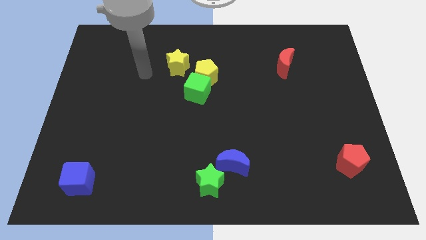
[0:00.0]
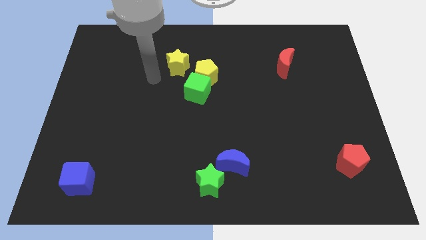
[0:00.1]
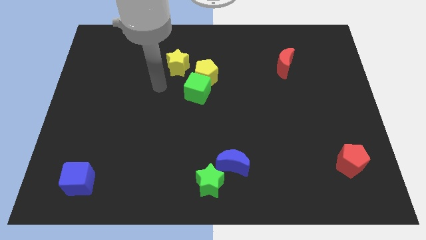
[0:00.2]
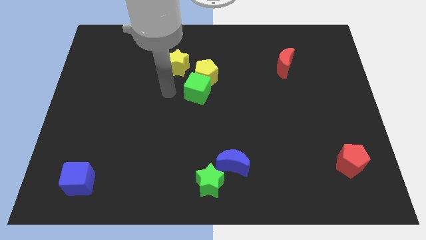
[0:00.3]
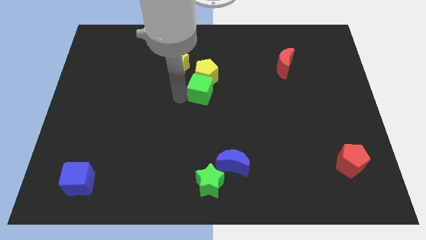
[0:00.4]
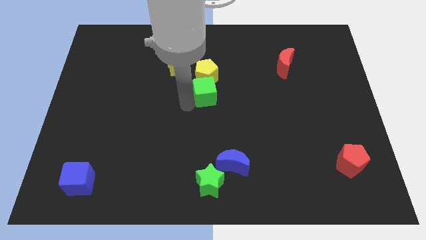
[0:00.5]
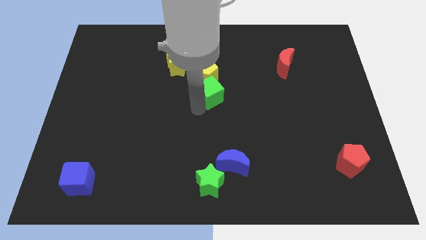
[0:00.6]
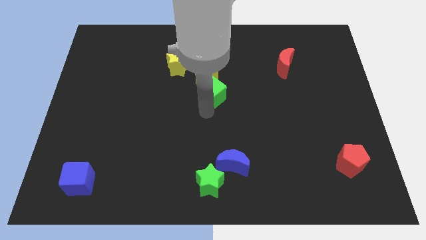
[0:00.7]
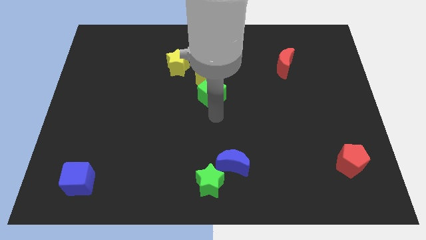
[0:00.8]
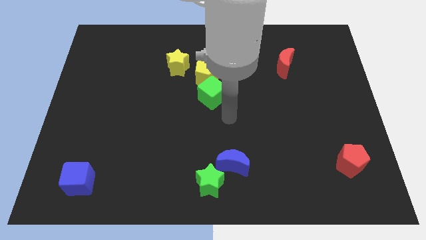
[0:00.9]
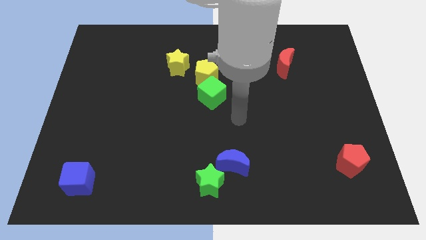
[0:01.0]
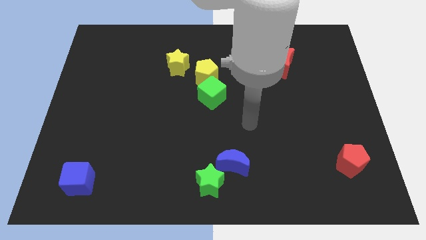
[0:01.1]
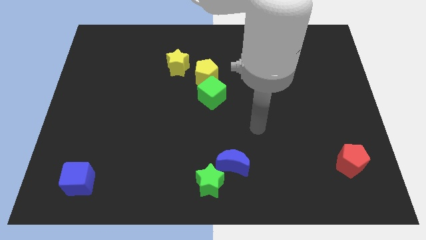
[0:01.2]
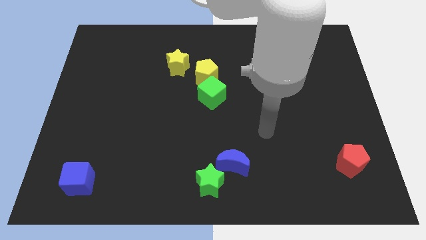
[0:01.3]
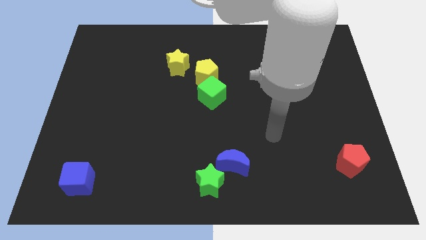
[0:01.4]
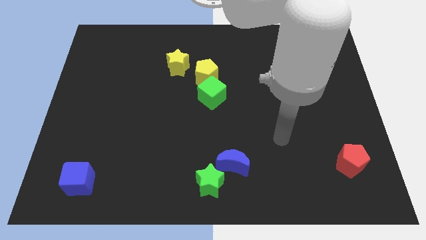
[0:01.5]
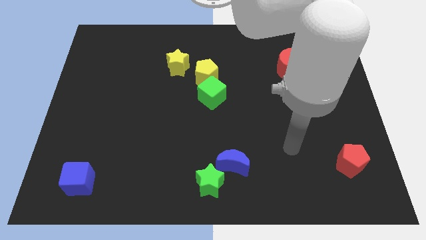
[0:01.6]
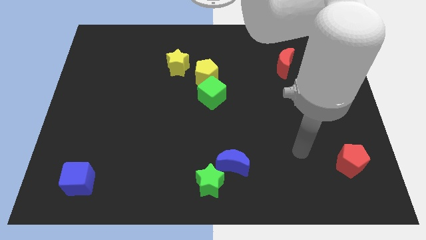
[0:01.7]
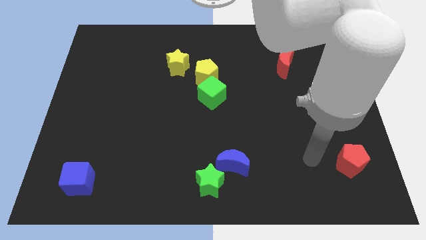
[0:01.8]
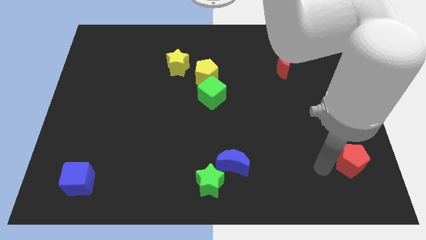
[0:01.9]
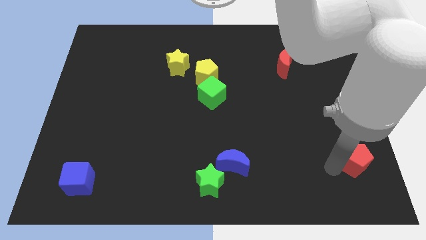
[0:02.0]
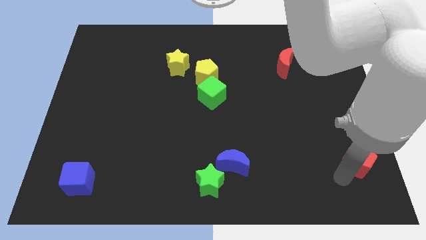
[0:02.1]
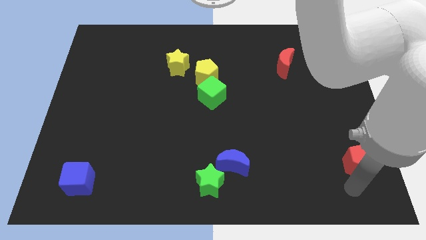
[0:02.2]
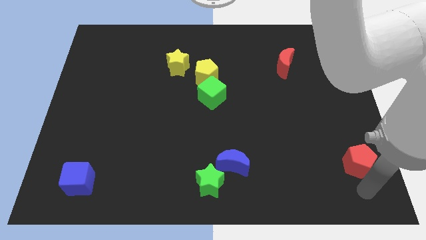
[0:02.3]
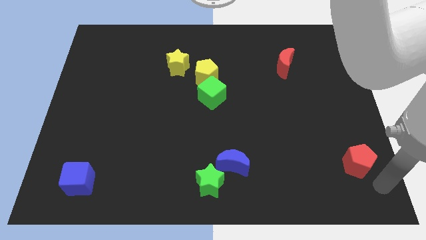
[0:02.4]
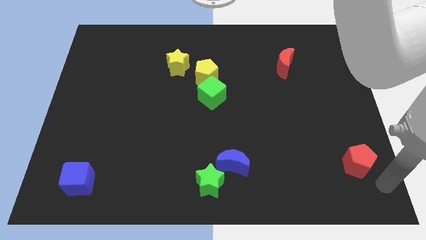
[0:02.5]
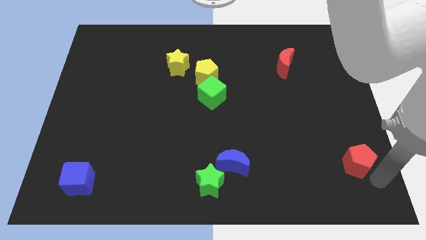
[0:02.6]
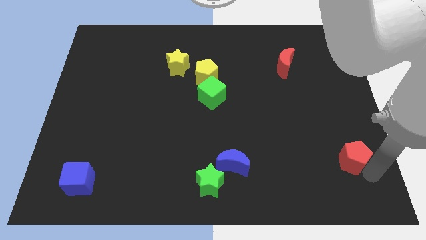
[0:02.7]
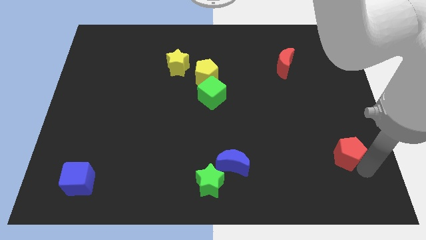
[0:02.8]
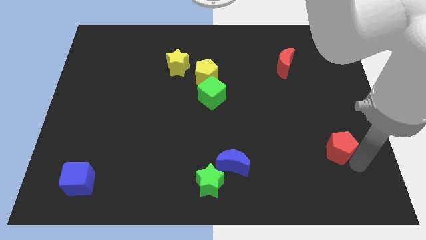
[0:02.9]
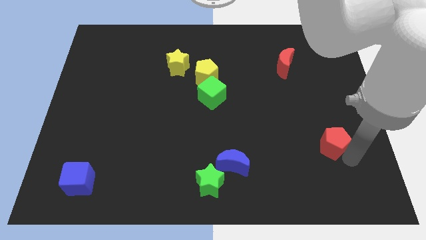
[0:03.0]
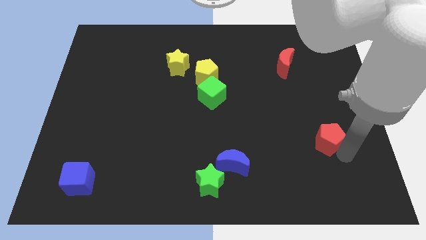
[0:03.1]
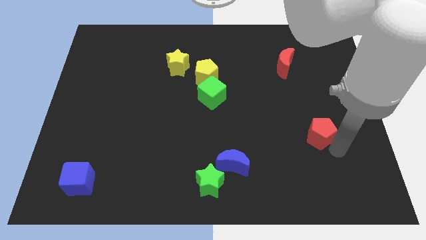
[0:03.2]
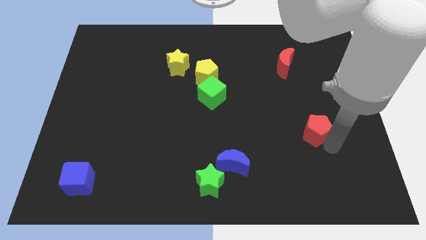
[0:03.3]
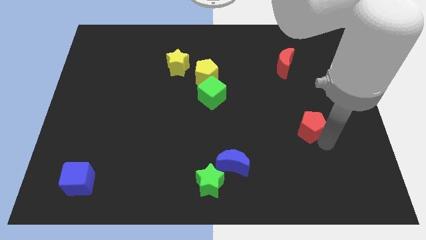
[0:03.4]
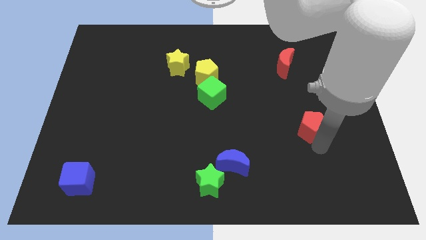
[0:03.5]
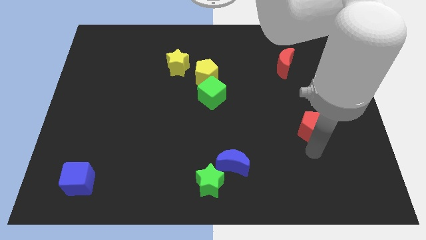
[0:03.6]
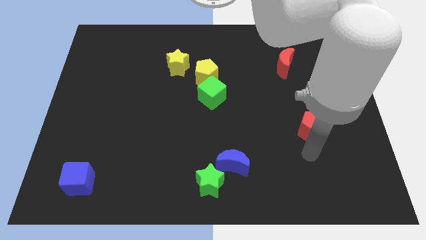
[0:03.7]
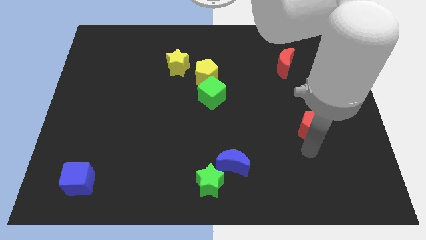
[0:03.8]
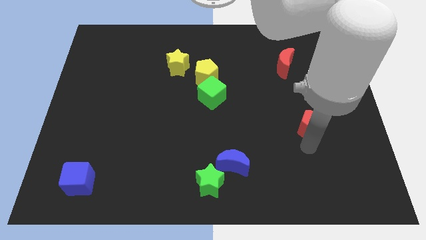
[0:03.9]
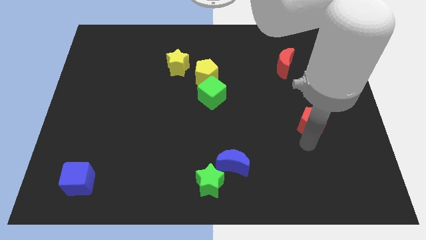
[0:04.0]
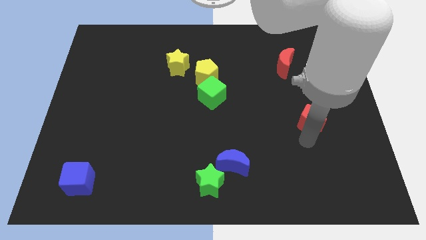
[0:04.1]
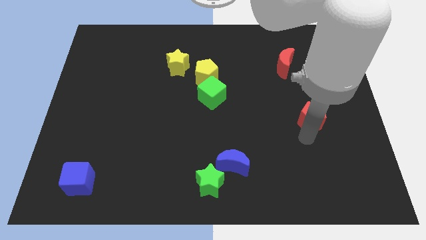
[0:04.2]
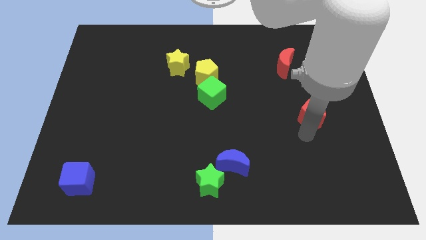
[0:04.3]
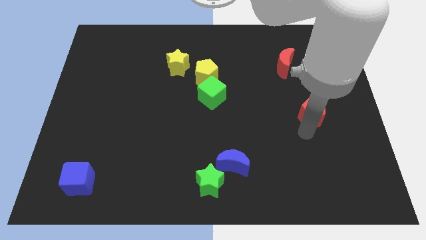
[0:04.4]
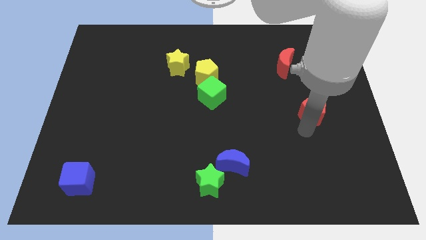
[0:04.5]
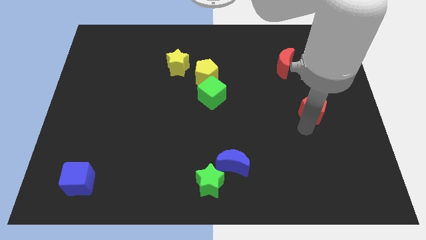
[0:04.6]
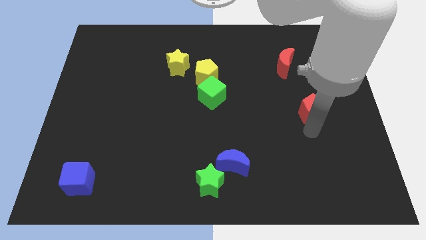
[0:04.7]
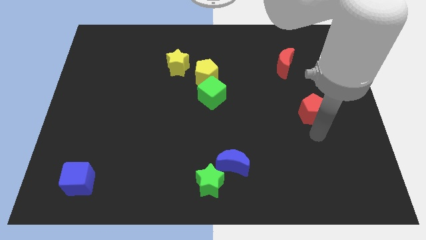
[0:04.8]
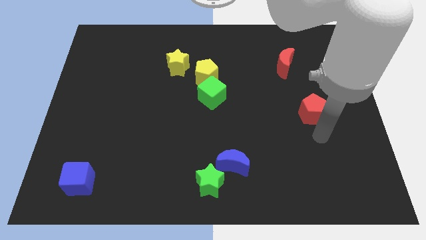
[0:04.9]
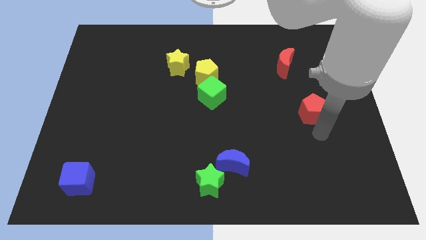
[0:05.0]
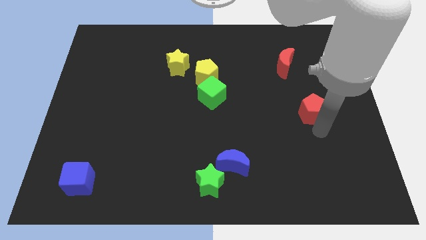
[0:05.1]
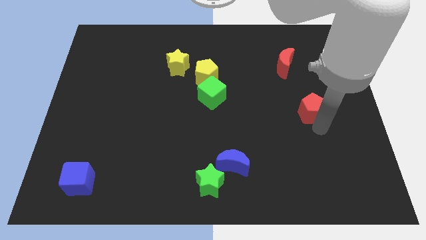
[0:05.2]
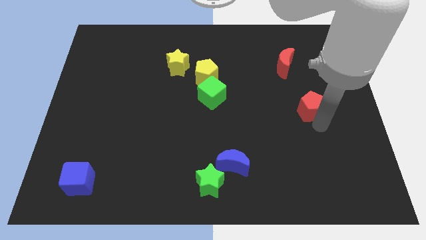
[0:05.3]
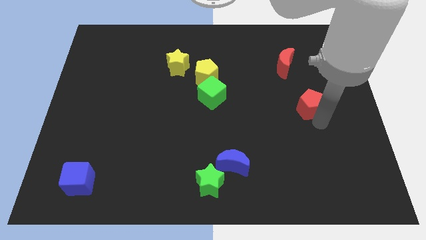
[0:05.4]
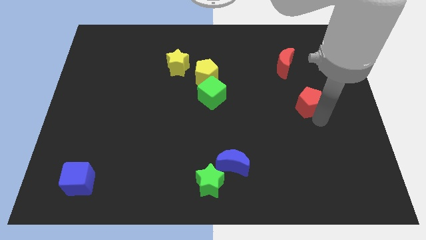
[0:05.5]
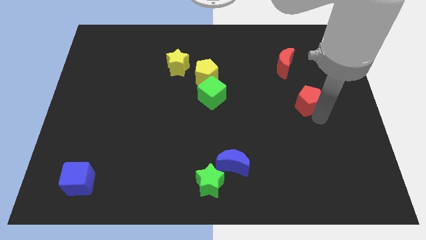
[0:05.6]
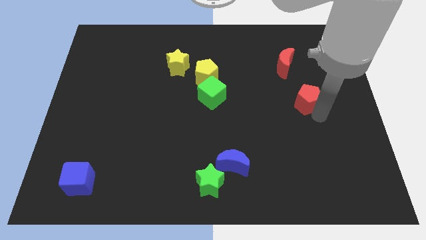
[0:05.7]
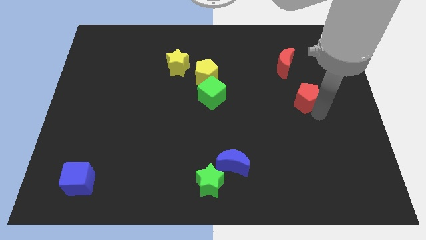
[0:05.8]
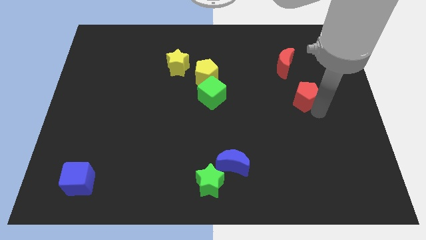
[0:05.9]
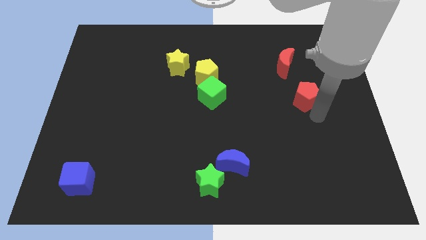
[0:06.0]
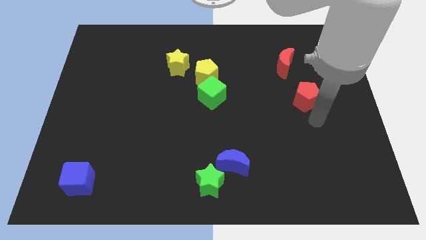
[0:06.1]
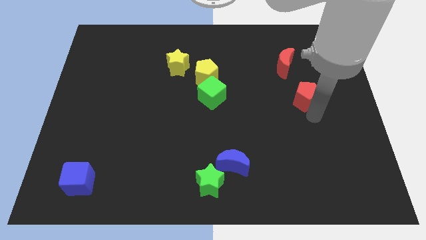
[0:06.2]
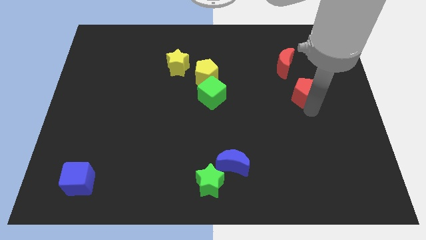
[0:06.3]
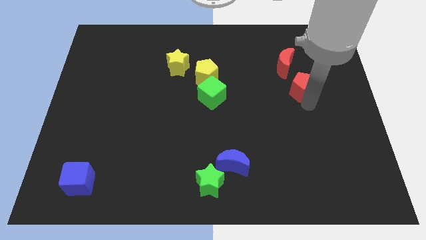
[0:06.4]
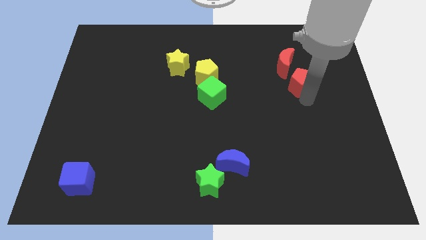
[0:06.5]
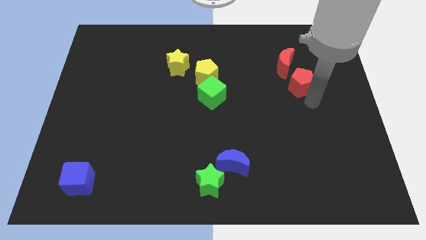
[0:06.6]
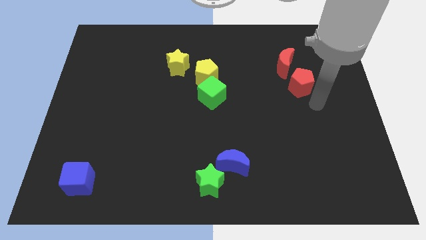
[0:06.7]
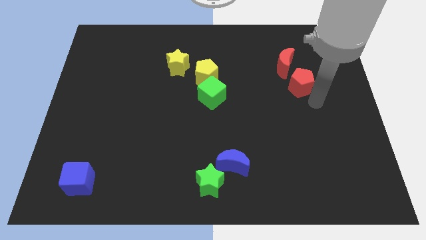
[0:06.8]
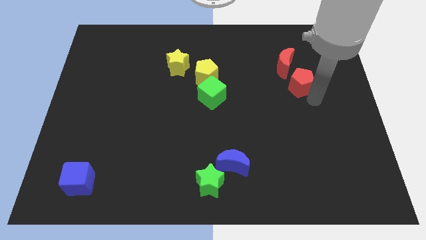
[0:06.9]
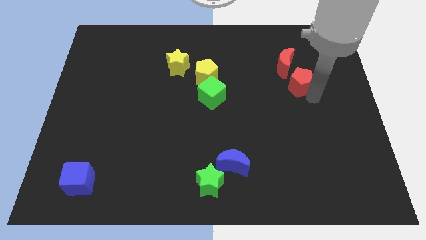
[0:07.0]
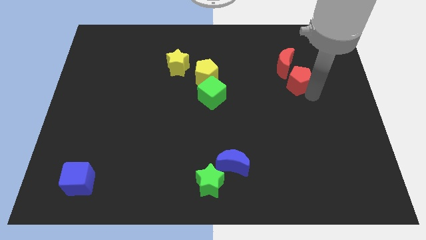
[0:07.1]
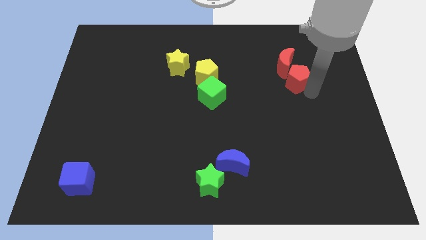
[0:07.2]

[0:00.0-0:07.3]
push the red pentagon next to the red moon
